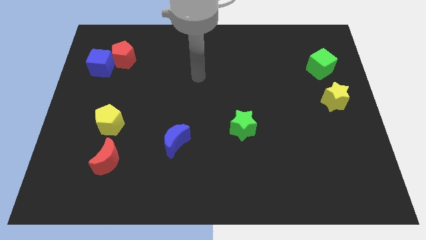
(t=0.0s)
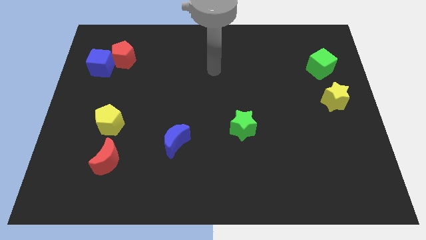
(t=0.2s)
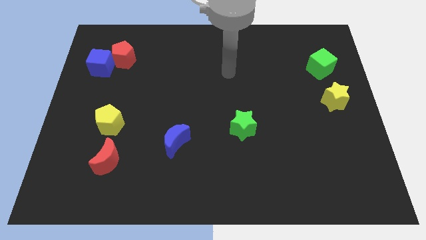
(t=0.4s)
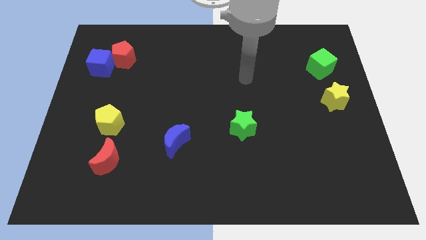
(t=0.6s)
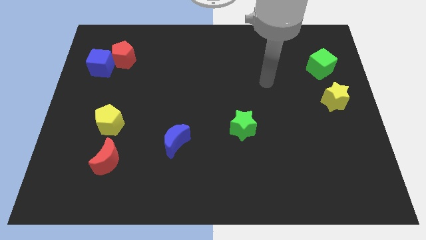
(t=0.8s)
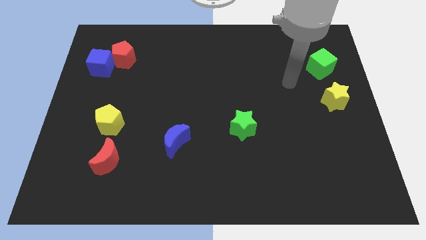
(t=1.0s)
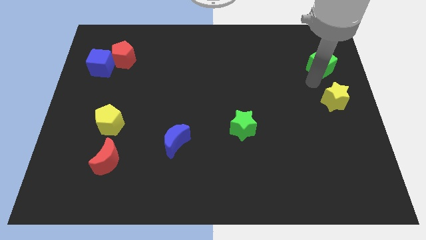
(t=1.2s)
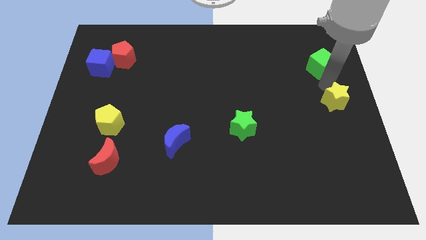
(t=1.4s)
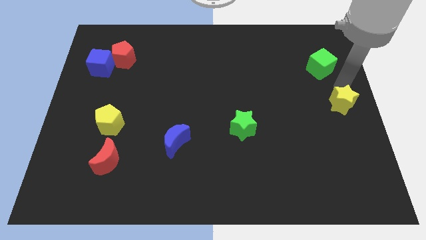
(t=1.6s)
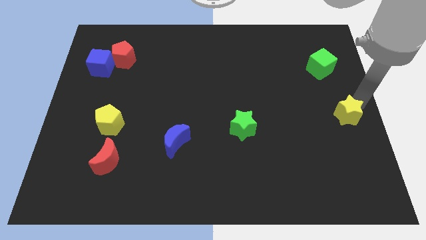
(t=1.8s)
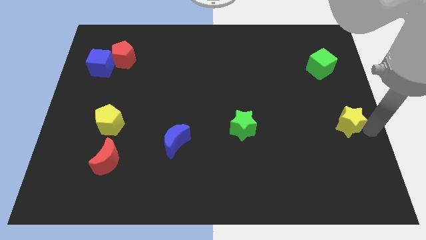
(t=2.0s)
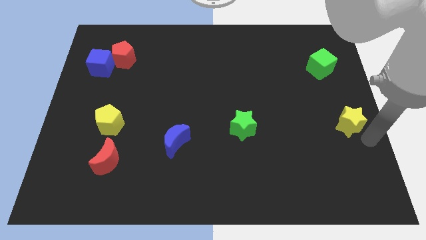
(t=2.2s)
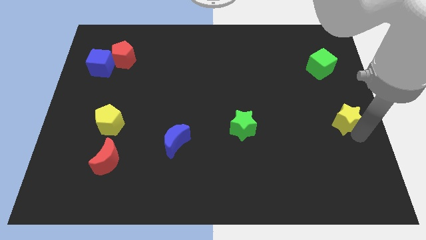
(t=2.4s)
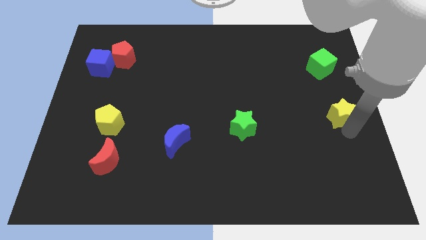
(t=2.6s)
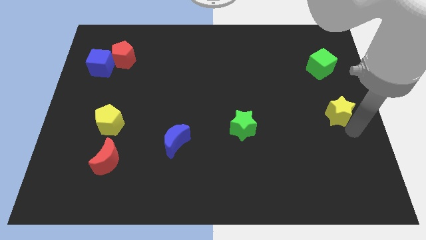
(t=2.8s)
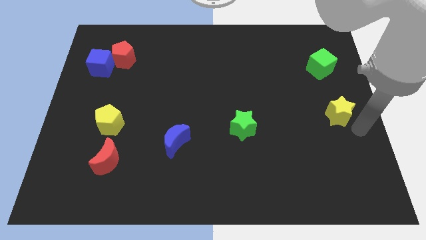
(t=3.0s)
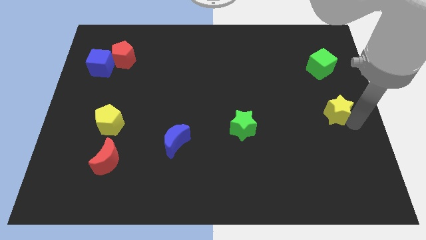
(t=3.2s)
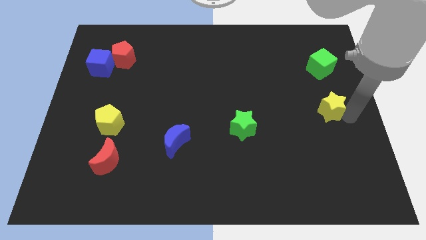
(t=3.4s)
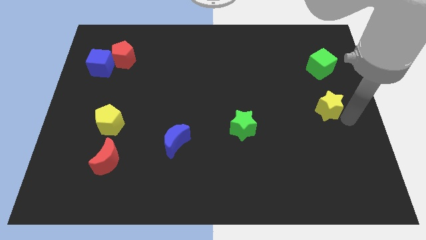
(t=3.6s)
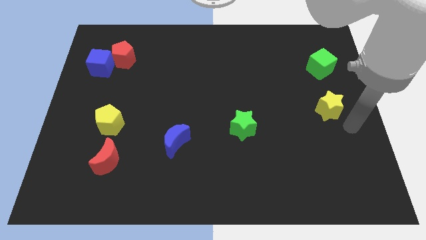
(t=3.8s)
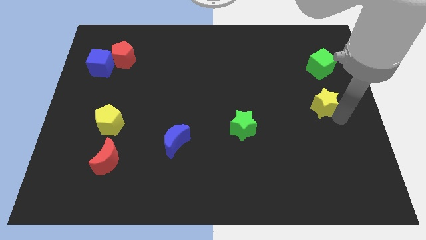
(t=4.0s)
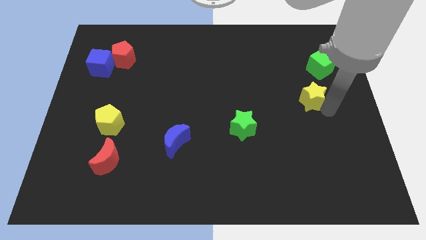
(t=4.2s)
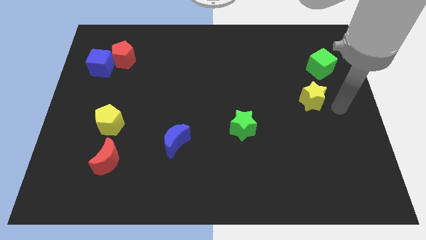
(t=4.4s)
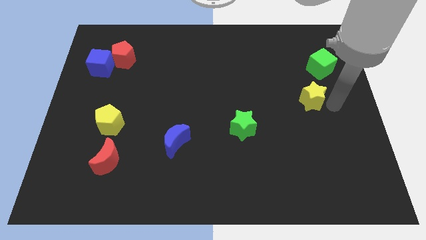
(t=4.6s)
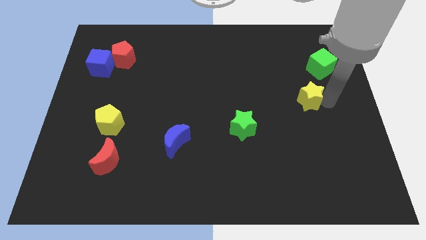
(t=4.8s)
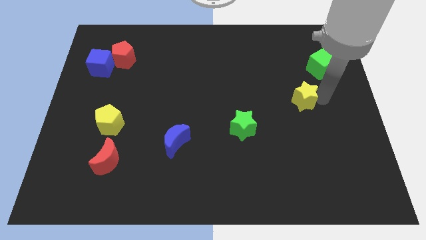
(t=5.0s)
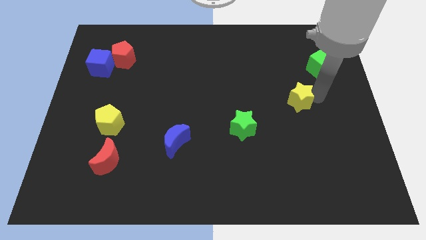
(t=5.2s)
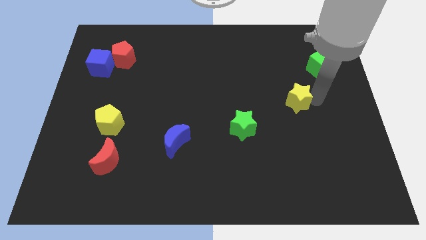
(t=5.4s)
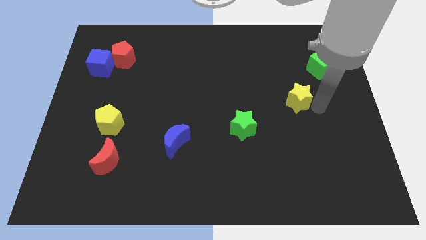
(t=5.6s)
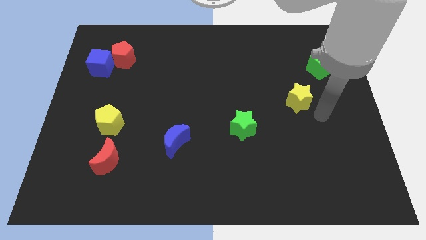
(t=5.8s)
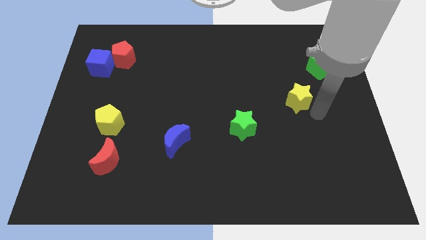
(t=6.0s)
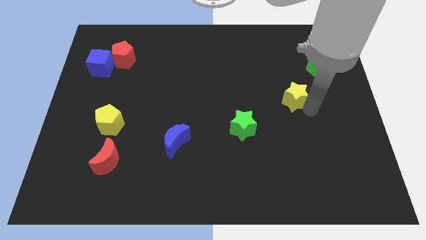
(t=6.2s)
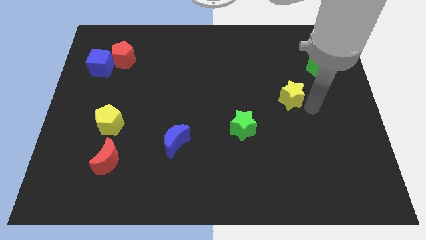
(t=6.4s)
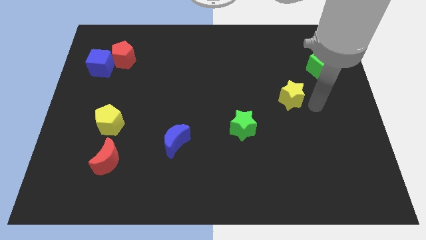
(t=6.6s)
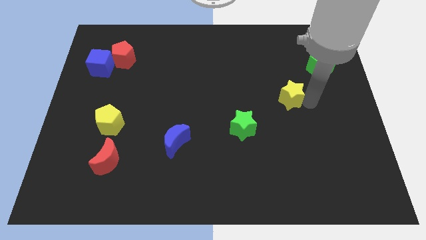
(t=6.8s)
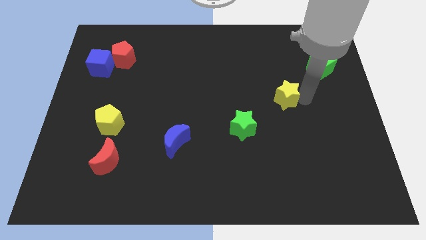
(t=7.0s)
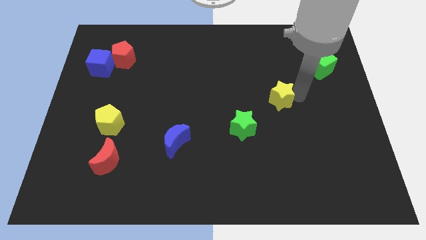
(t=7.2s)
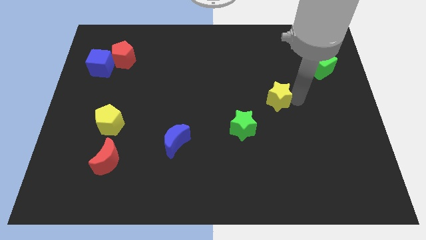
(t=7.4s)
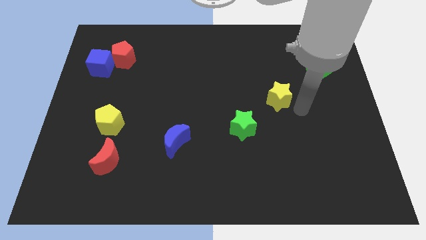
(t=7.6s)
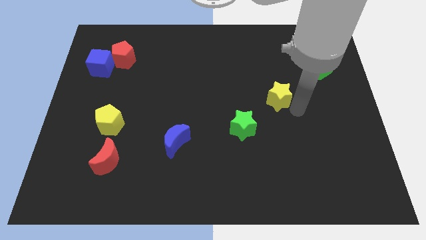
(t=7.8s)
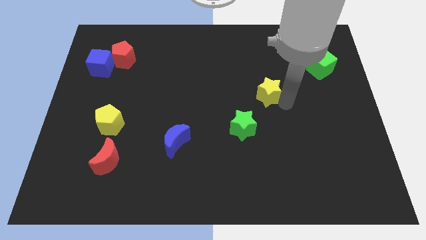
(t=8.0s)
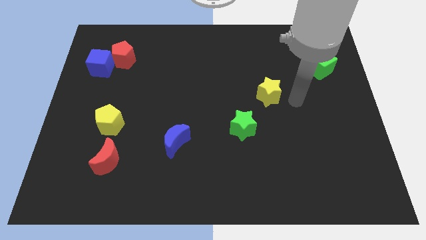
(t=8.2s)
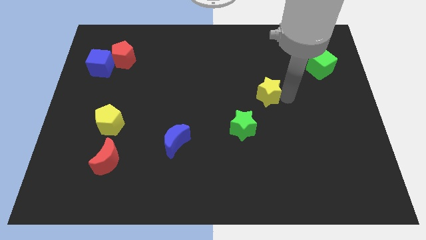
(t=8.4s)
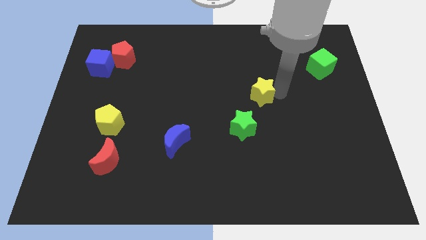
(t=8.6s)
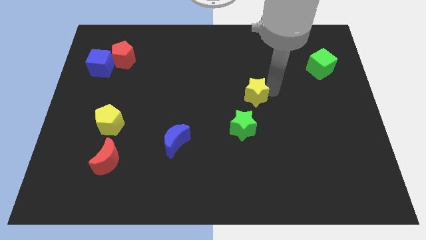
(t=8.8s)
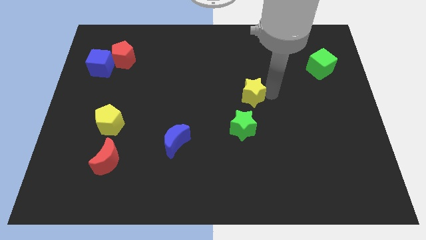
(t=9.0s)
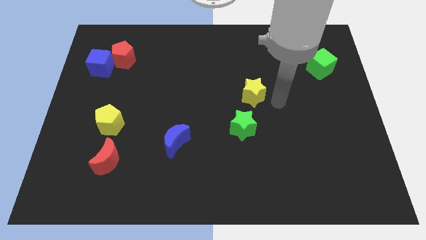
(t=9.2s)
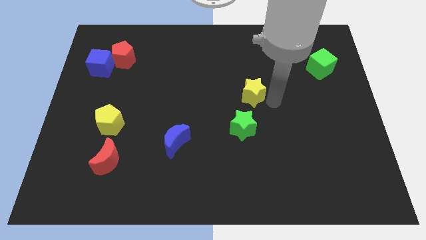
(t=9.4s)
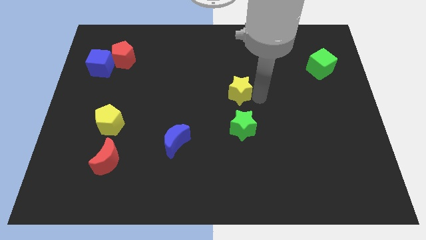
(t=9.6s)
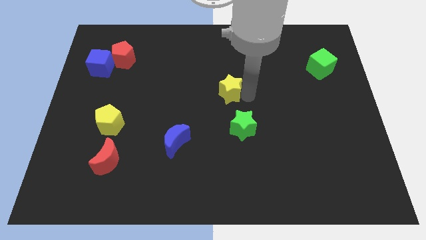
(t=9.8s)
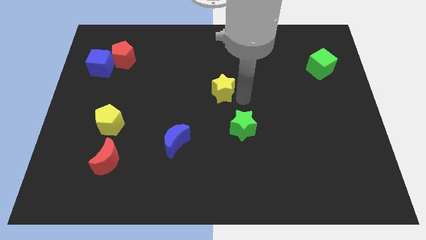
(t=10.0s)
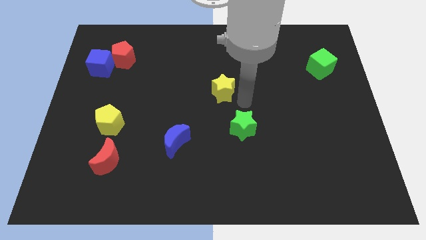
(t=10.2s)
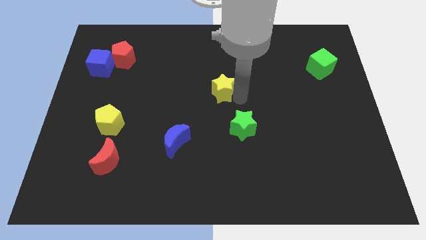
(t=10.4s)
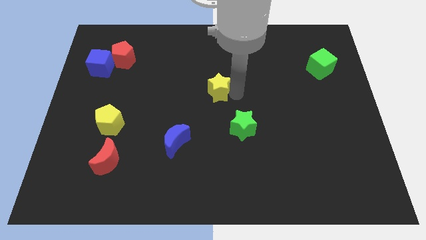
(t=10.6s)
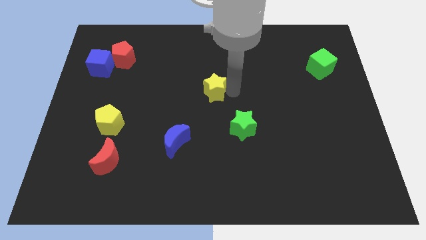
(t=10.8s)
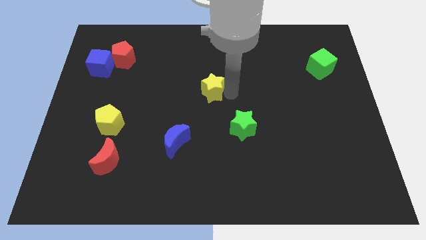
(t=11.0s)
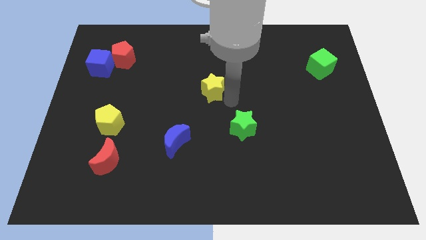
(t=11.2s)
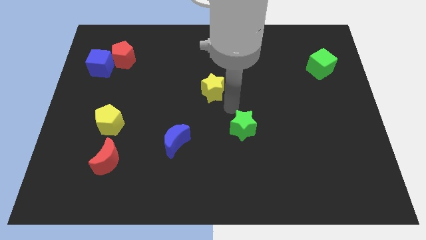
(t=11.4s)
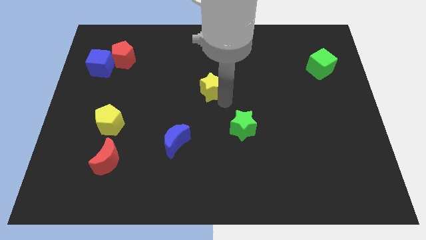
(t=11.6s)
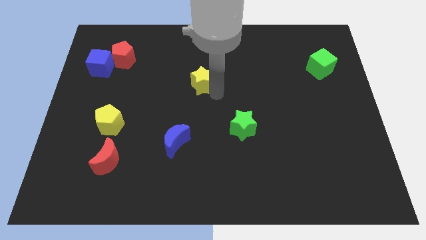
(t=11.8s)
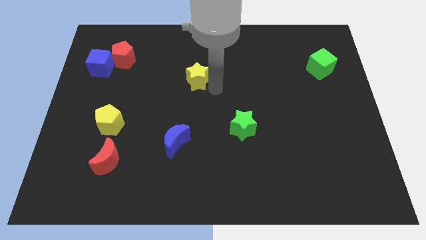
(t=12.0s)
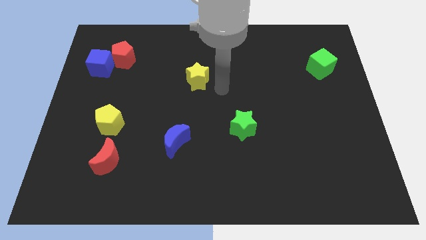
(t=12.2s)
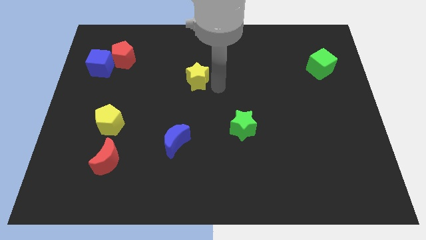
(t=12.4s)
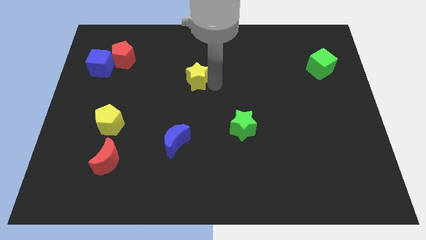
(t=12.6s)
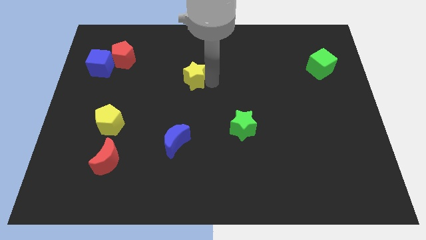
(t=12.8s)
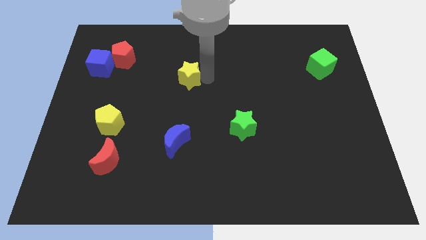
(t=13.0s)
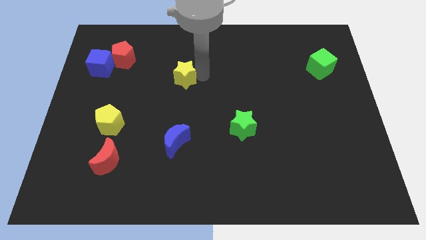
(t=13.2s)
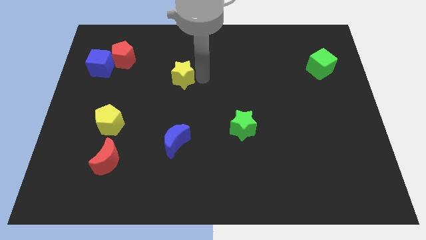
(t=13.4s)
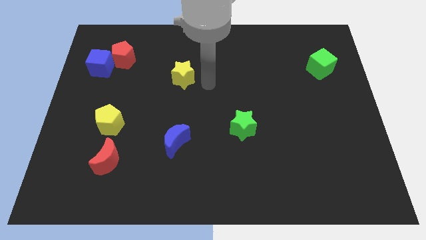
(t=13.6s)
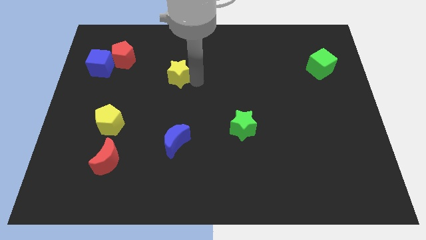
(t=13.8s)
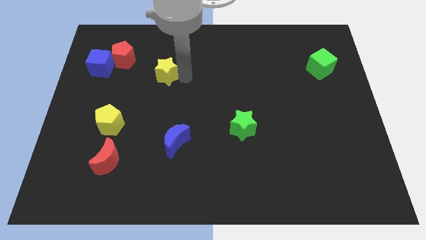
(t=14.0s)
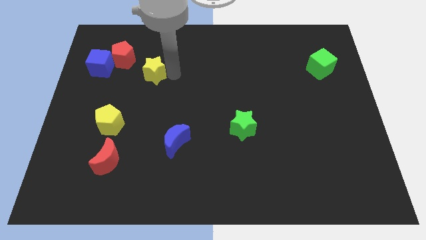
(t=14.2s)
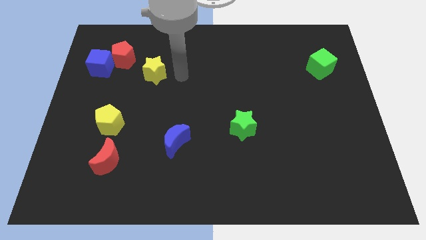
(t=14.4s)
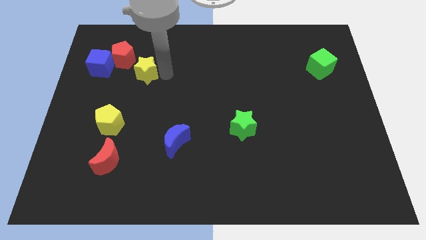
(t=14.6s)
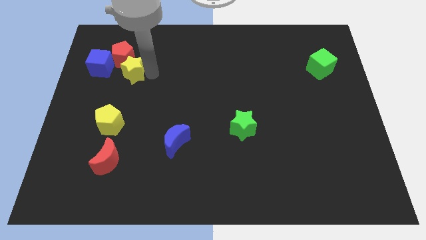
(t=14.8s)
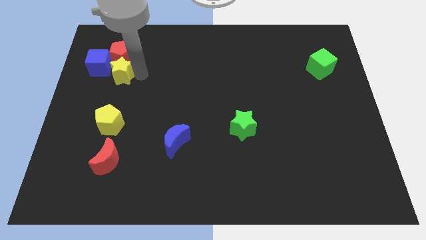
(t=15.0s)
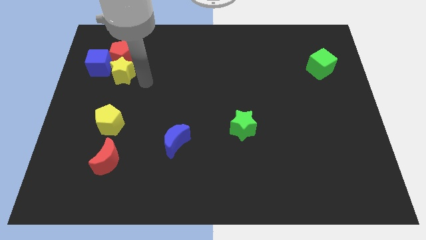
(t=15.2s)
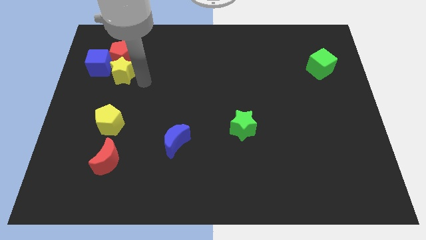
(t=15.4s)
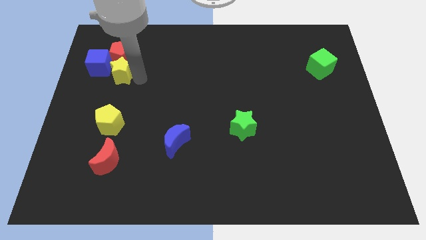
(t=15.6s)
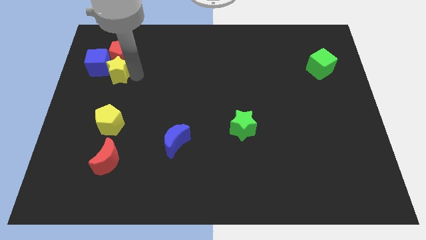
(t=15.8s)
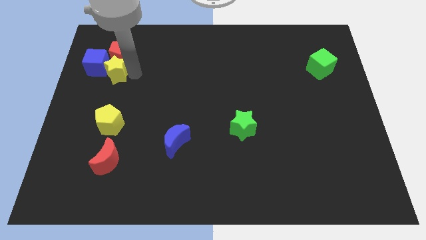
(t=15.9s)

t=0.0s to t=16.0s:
push the yellow star towards the blue cube

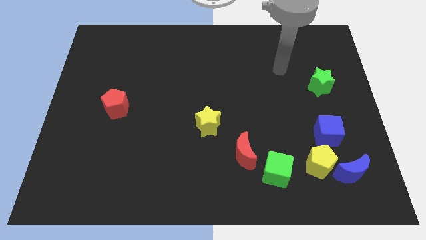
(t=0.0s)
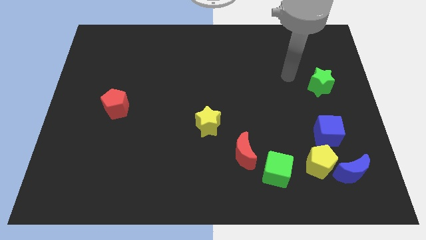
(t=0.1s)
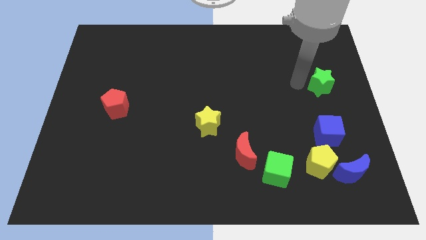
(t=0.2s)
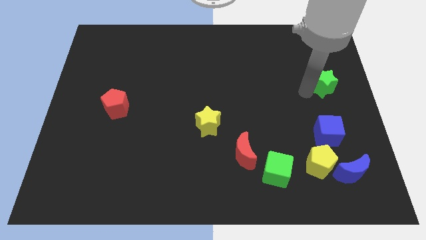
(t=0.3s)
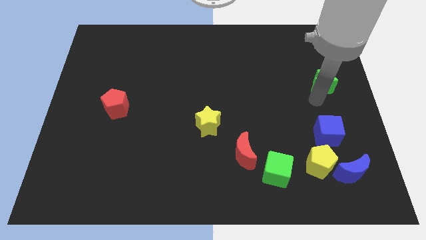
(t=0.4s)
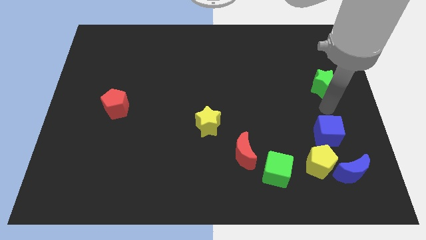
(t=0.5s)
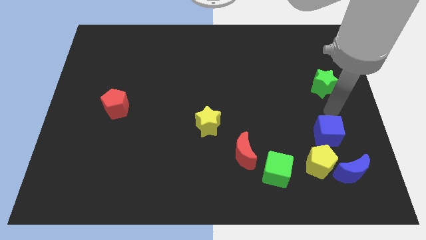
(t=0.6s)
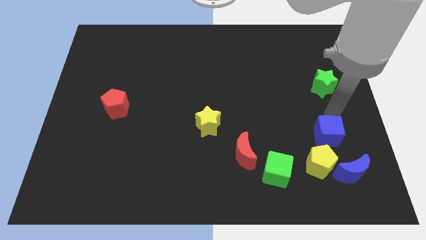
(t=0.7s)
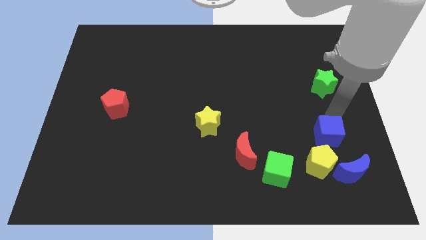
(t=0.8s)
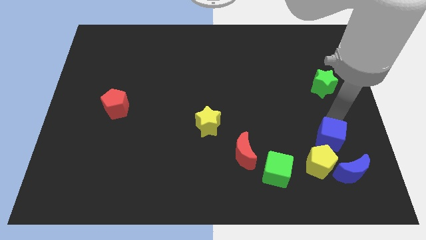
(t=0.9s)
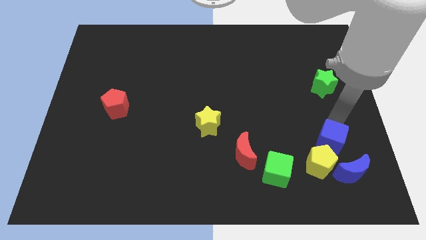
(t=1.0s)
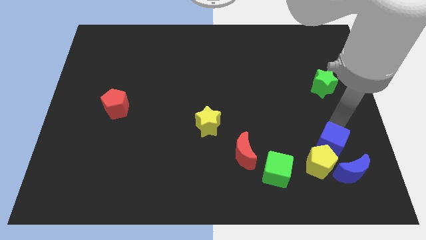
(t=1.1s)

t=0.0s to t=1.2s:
push the blue cube to the yellow pentagon
